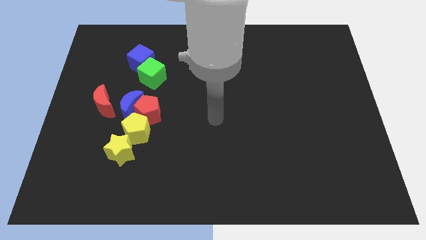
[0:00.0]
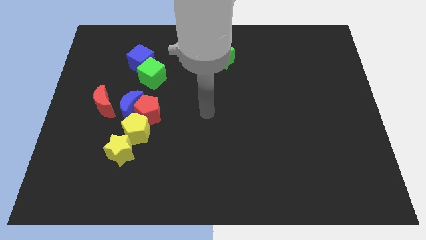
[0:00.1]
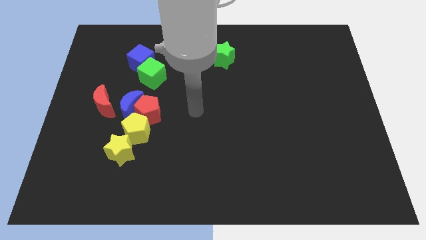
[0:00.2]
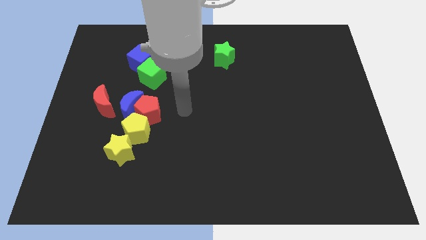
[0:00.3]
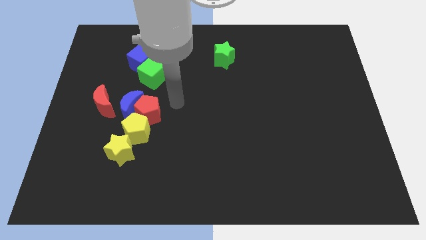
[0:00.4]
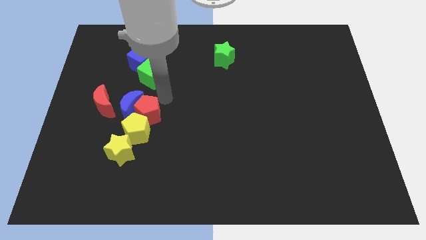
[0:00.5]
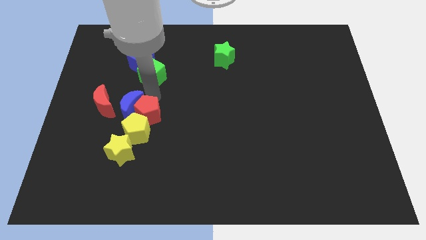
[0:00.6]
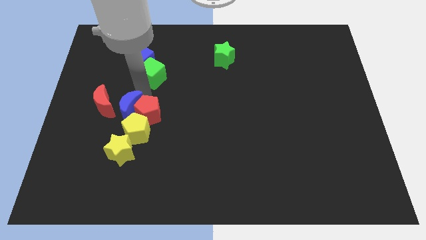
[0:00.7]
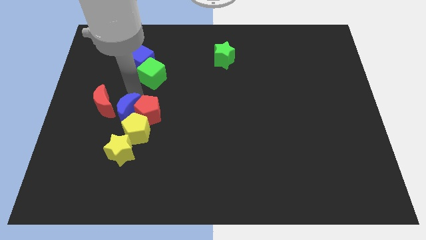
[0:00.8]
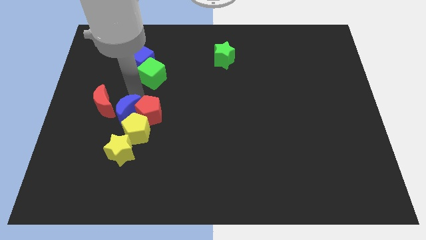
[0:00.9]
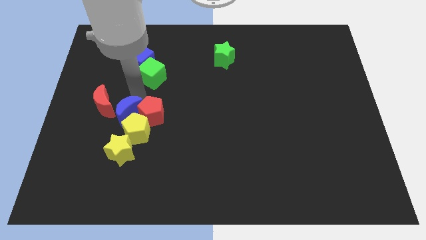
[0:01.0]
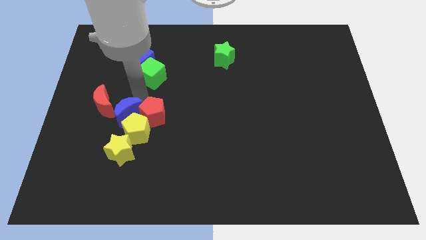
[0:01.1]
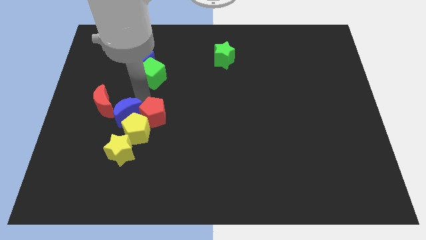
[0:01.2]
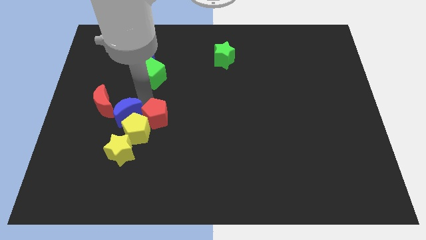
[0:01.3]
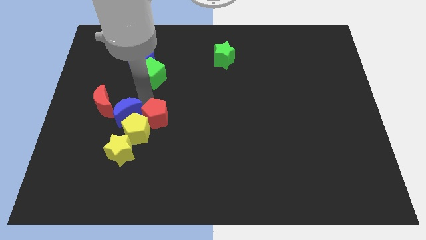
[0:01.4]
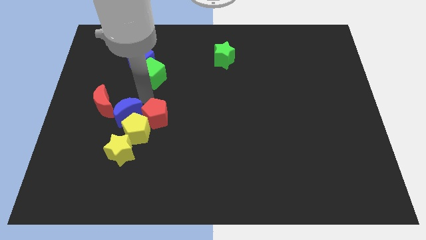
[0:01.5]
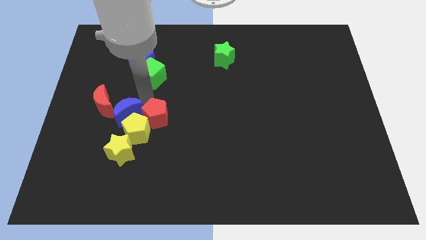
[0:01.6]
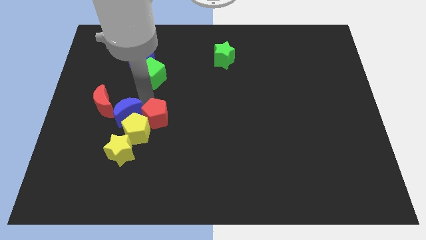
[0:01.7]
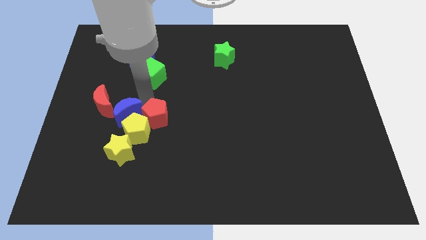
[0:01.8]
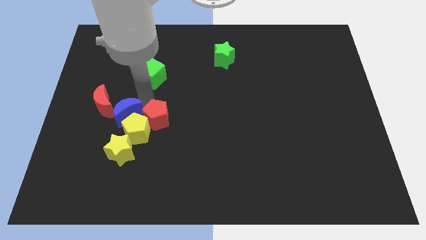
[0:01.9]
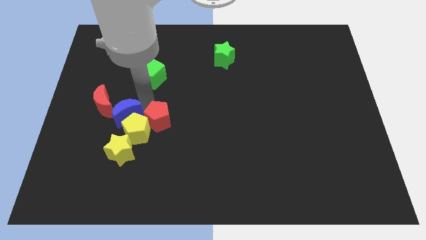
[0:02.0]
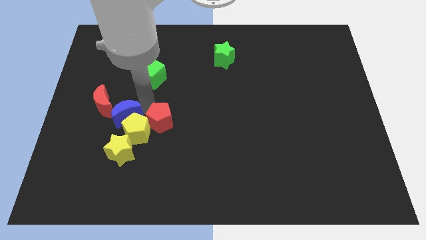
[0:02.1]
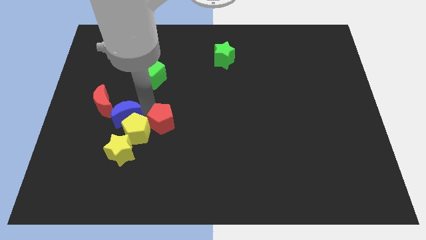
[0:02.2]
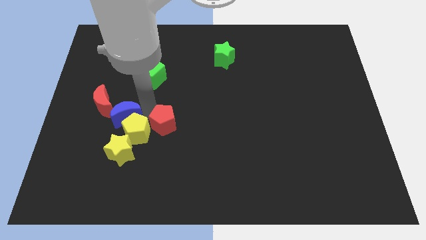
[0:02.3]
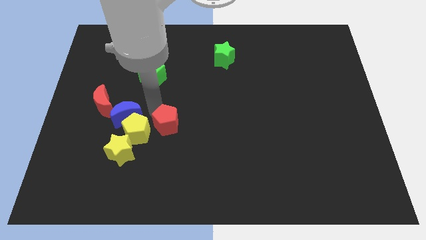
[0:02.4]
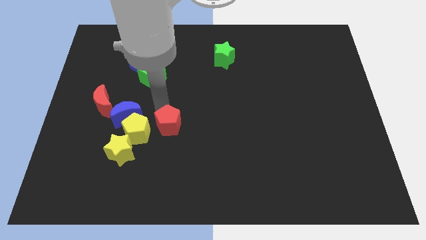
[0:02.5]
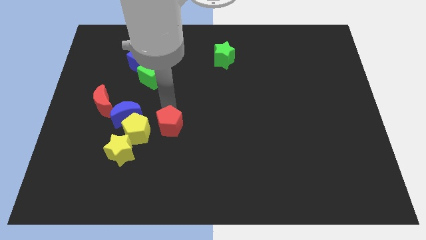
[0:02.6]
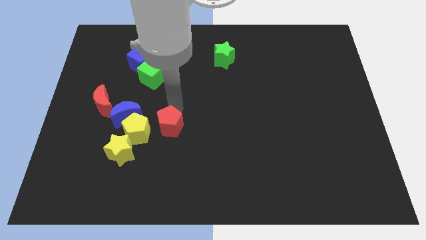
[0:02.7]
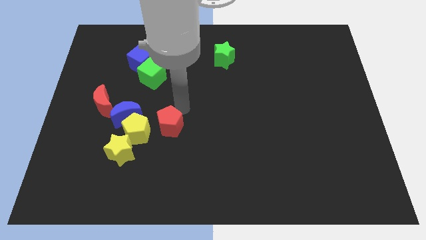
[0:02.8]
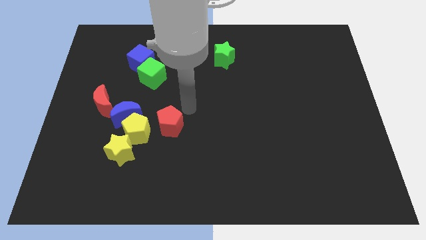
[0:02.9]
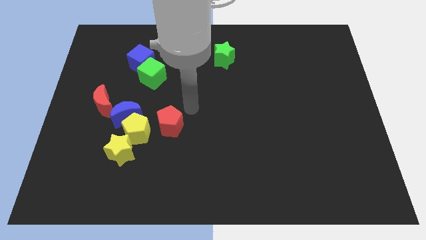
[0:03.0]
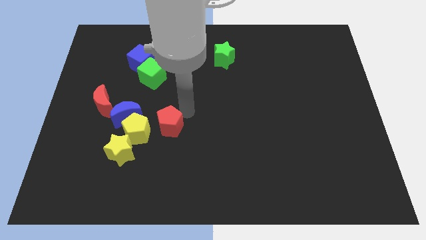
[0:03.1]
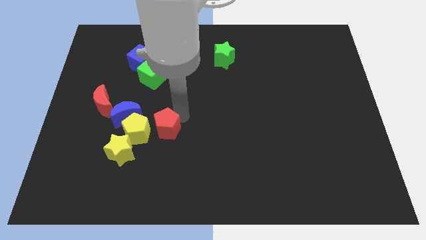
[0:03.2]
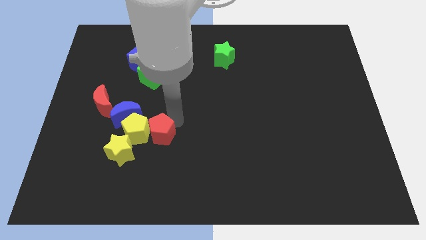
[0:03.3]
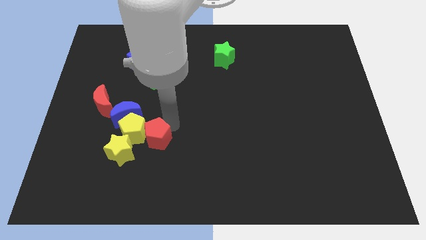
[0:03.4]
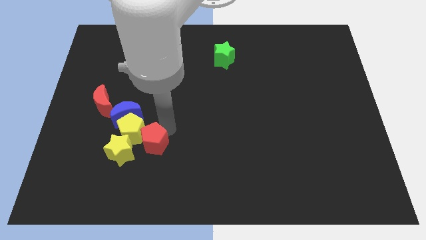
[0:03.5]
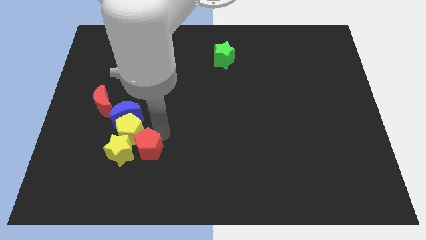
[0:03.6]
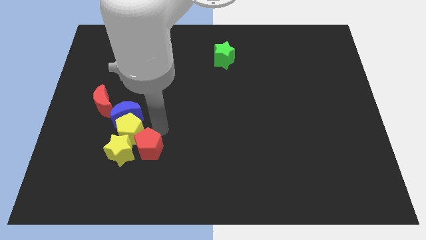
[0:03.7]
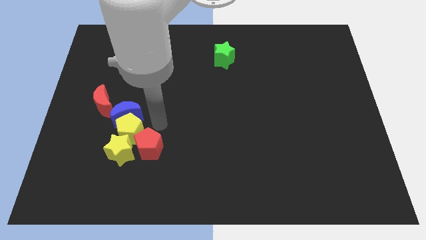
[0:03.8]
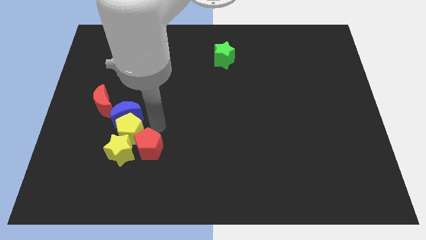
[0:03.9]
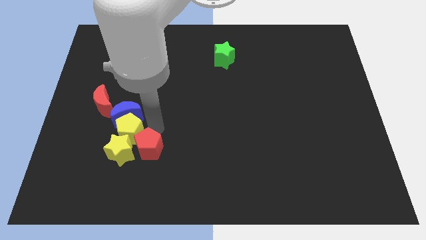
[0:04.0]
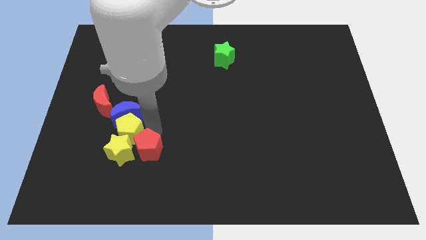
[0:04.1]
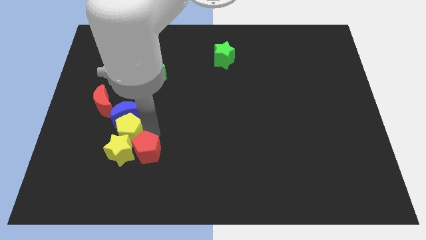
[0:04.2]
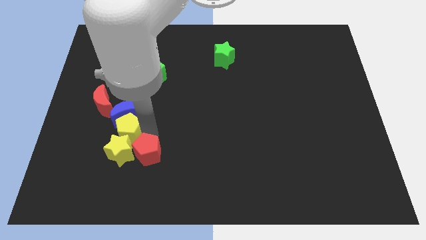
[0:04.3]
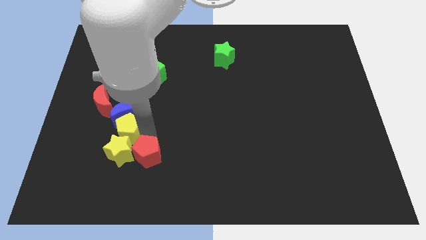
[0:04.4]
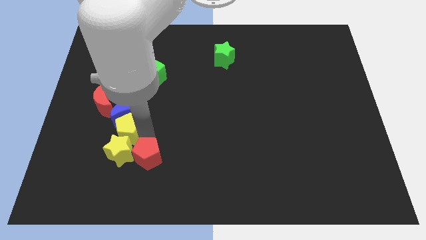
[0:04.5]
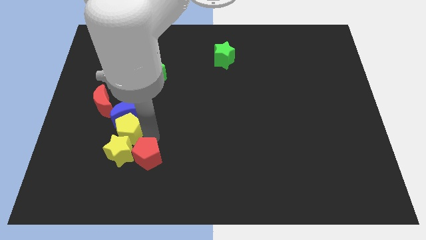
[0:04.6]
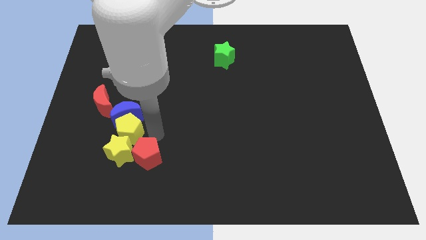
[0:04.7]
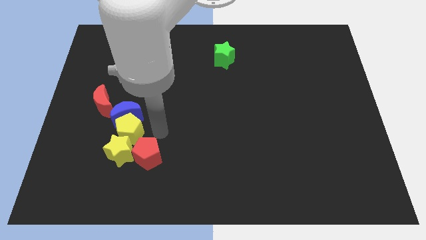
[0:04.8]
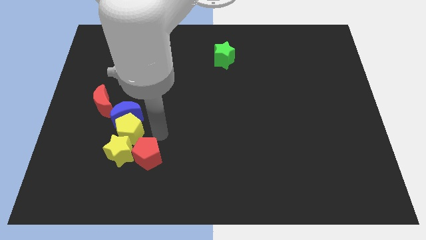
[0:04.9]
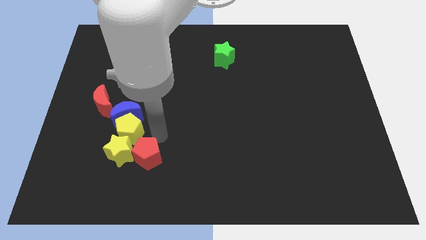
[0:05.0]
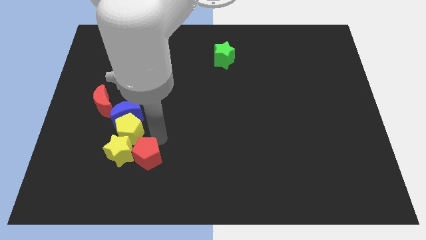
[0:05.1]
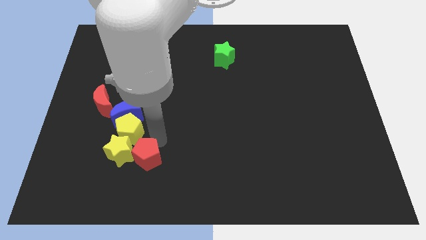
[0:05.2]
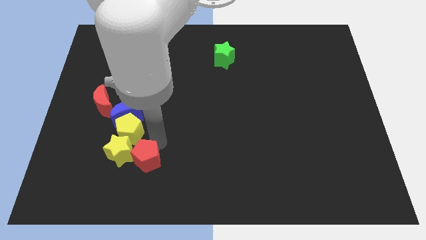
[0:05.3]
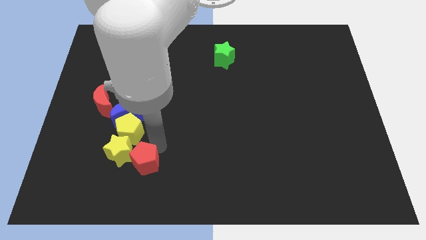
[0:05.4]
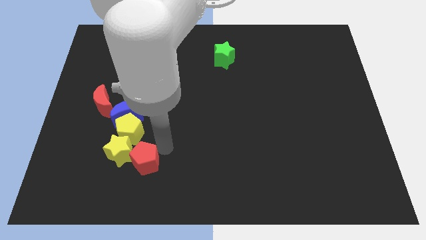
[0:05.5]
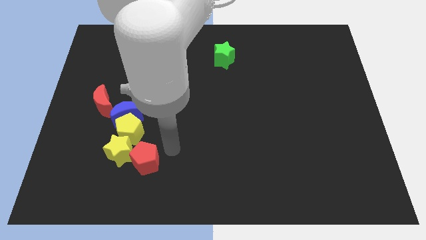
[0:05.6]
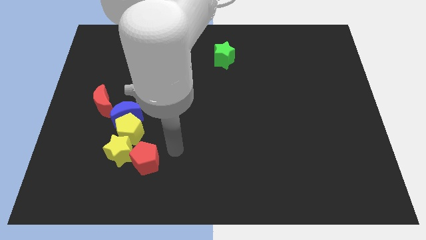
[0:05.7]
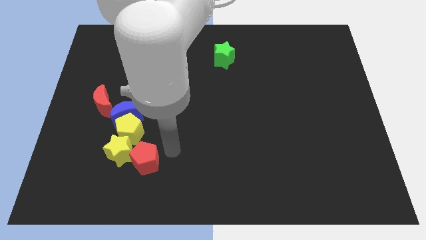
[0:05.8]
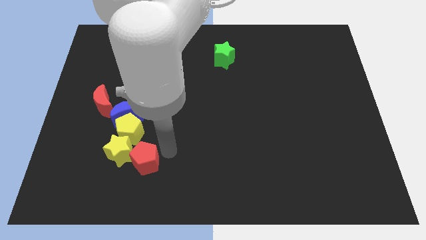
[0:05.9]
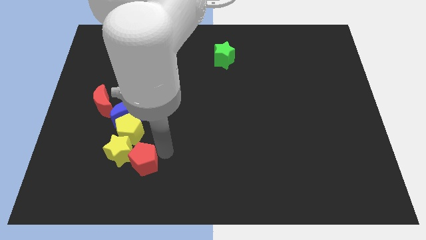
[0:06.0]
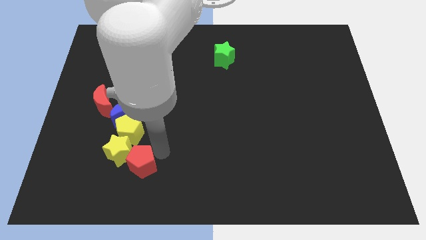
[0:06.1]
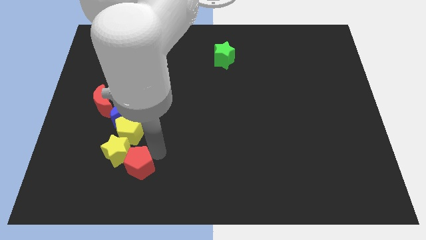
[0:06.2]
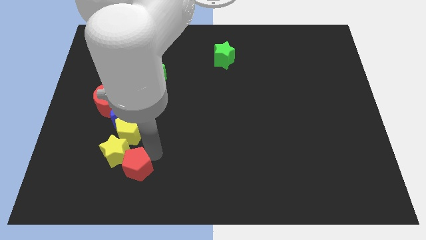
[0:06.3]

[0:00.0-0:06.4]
slide the red pentagon down and then left a little bit

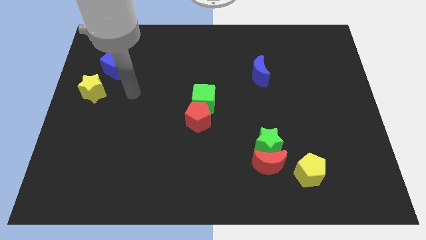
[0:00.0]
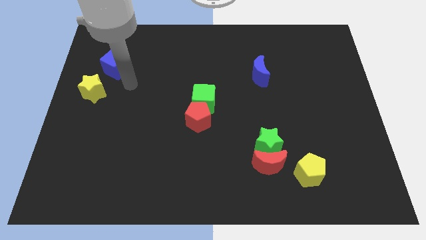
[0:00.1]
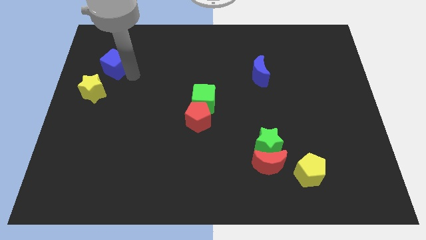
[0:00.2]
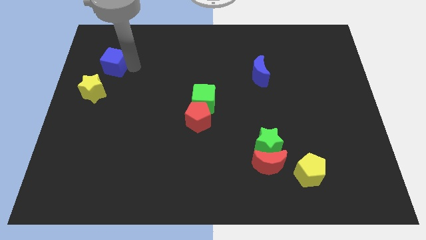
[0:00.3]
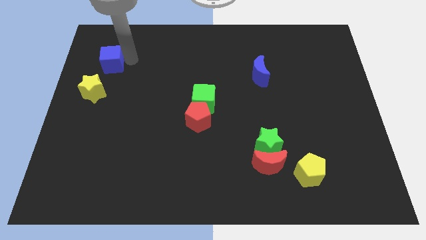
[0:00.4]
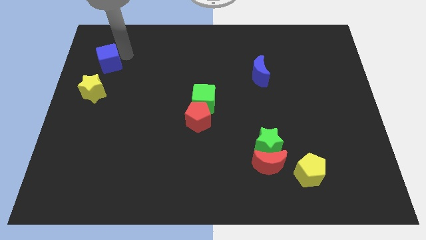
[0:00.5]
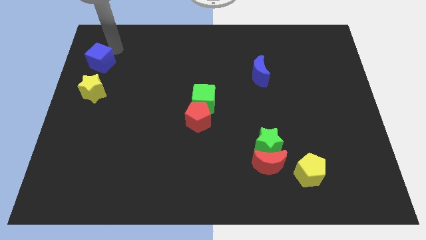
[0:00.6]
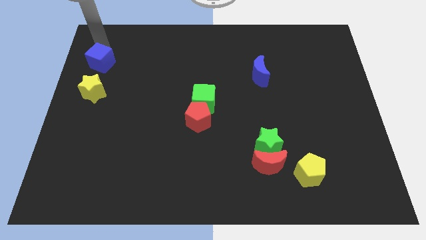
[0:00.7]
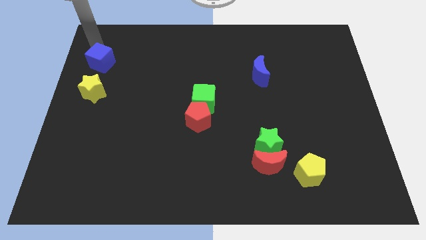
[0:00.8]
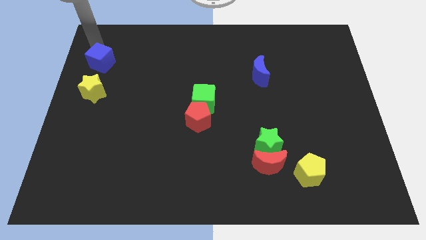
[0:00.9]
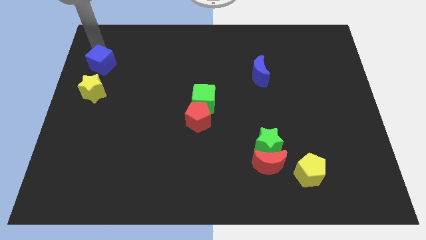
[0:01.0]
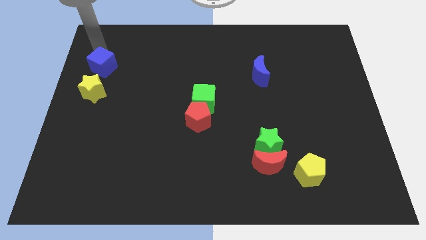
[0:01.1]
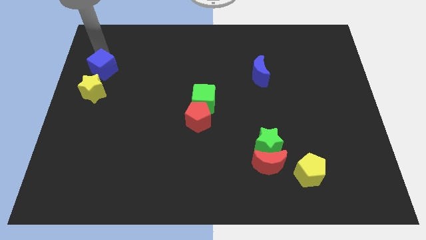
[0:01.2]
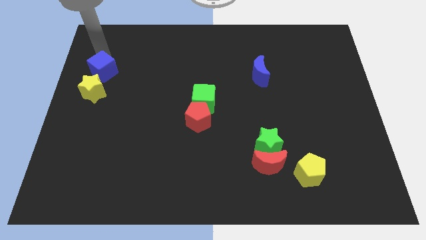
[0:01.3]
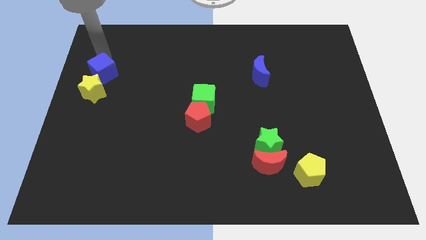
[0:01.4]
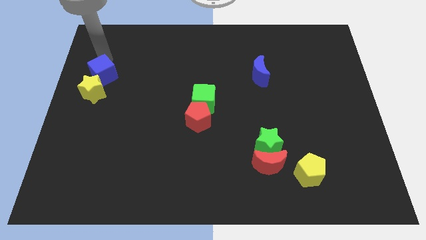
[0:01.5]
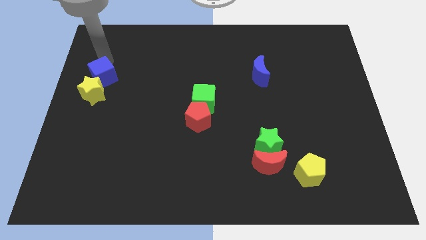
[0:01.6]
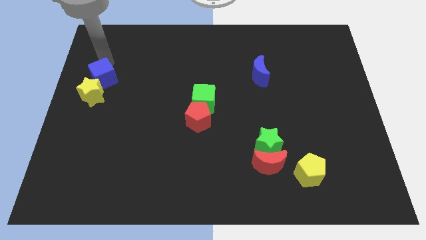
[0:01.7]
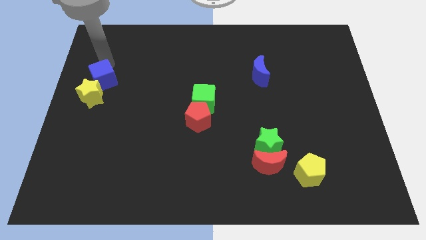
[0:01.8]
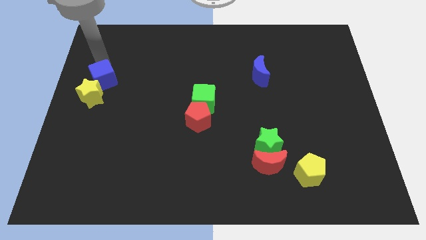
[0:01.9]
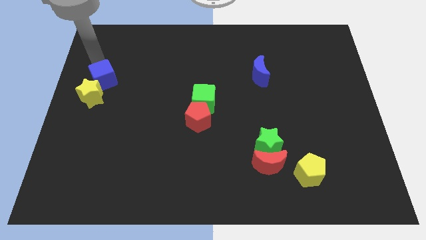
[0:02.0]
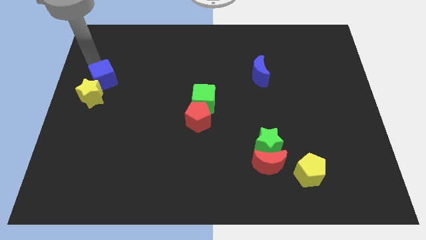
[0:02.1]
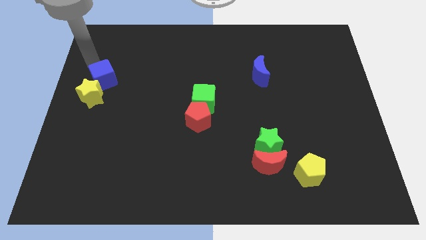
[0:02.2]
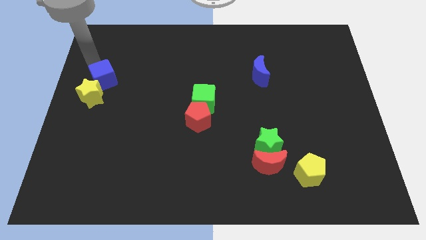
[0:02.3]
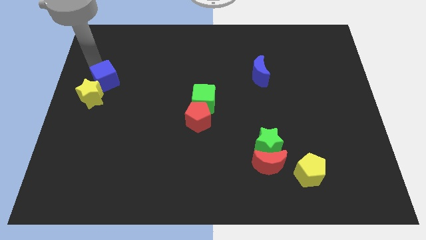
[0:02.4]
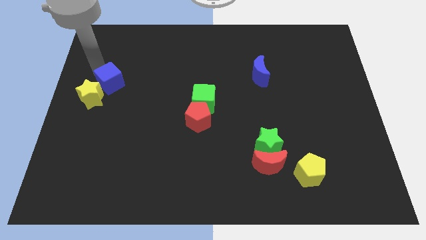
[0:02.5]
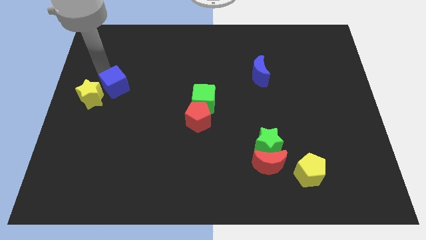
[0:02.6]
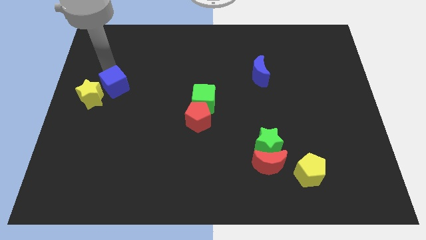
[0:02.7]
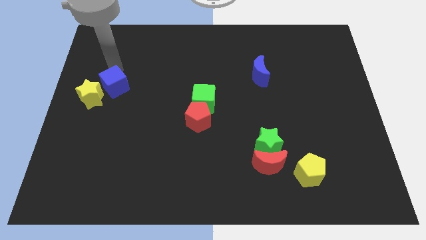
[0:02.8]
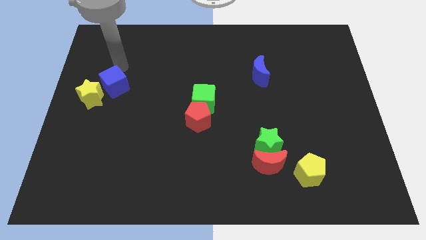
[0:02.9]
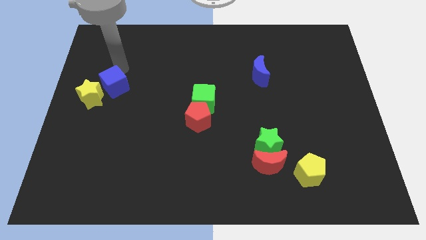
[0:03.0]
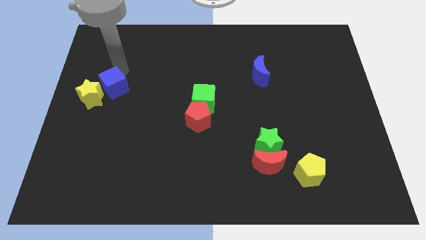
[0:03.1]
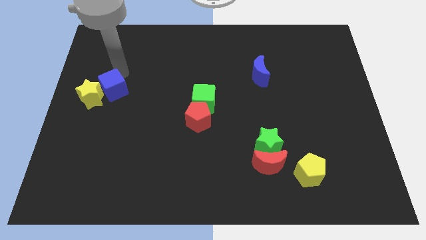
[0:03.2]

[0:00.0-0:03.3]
move the blue cube down a little
